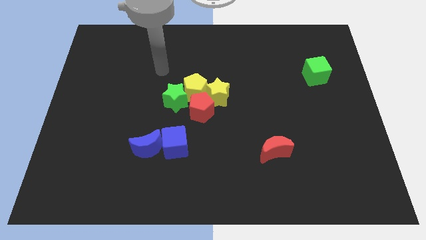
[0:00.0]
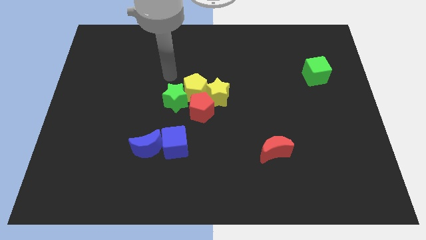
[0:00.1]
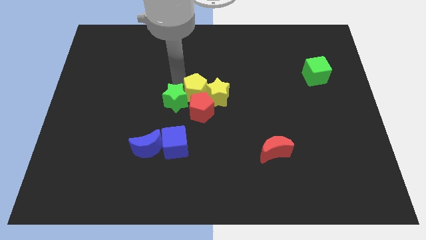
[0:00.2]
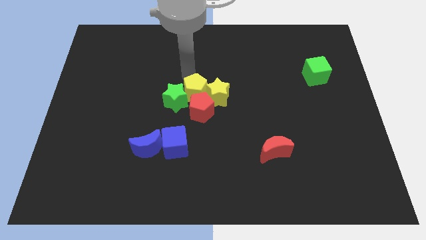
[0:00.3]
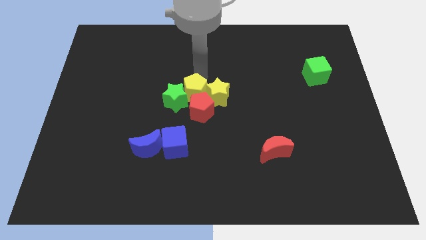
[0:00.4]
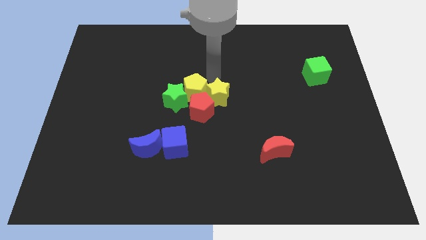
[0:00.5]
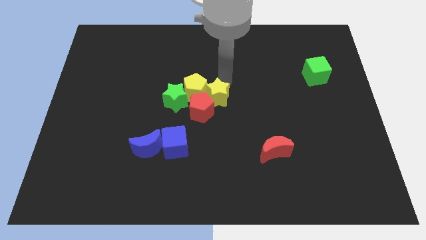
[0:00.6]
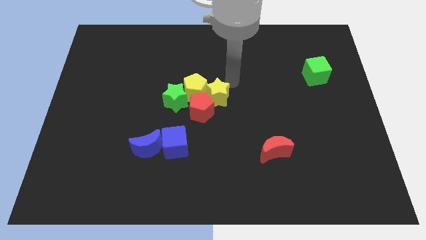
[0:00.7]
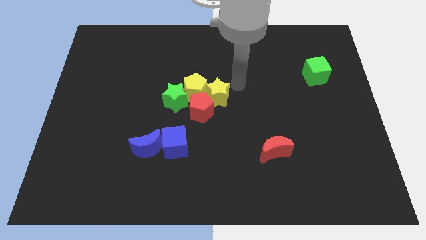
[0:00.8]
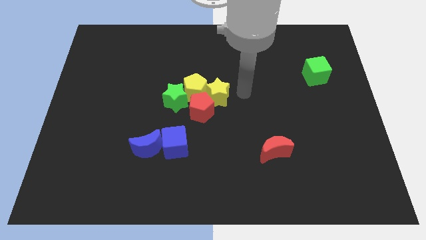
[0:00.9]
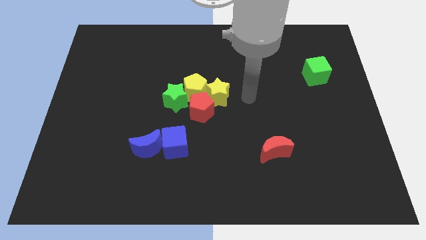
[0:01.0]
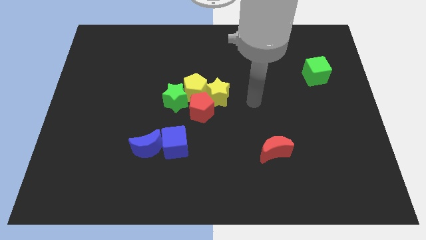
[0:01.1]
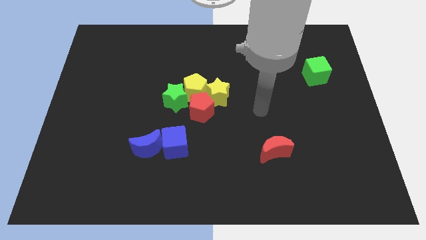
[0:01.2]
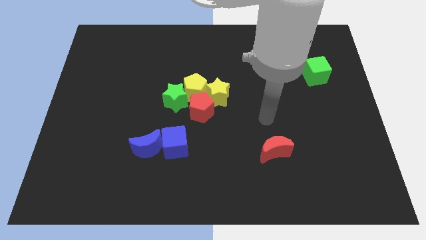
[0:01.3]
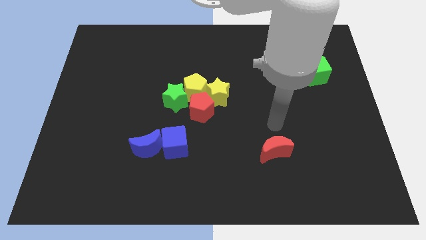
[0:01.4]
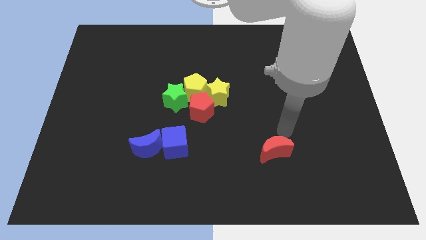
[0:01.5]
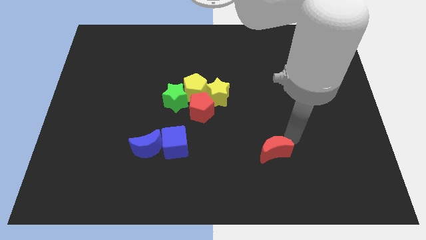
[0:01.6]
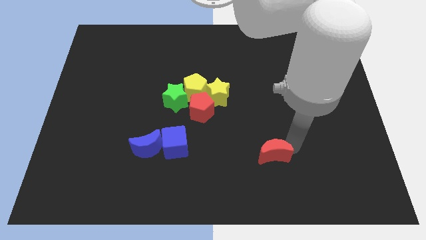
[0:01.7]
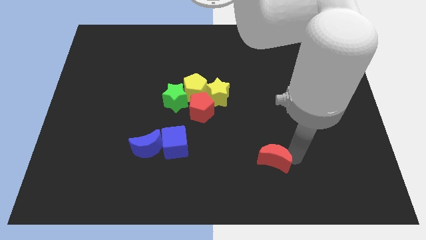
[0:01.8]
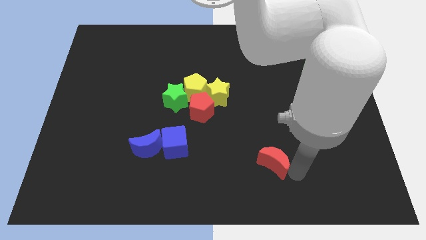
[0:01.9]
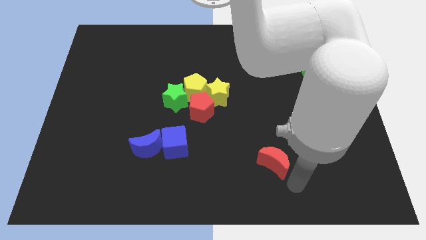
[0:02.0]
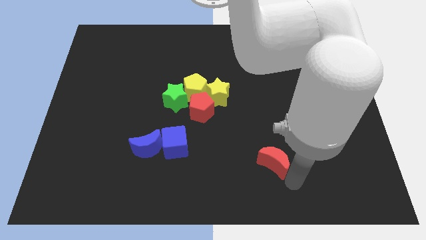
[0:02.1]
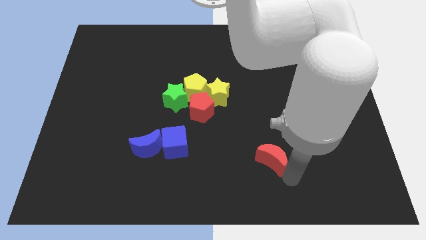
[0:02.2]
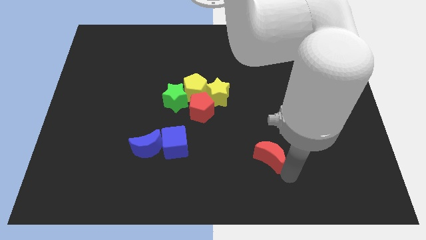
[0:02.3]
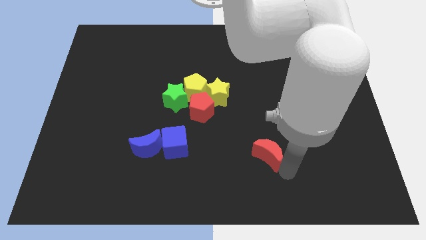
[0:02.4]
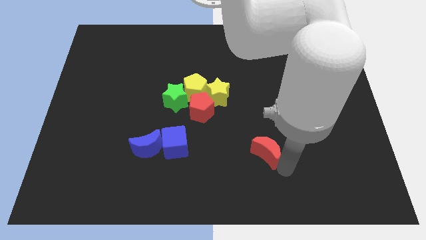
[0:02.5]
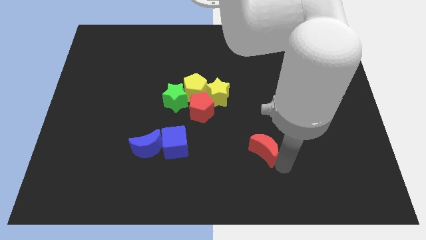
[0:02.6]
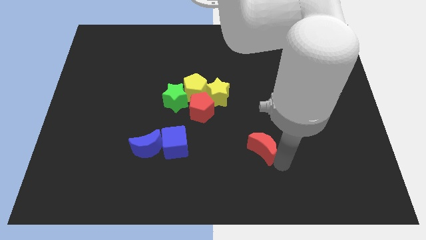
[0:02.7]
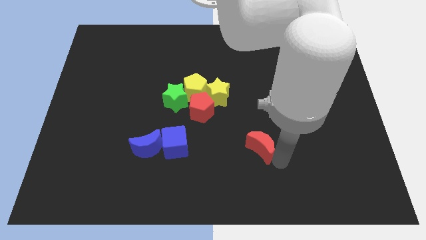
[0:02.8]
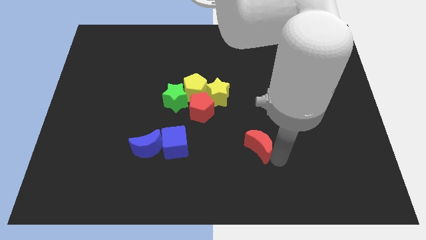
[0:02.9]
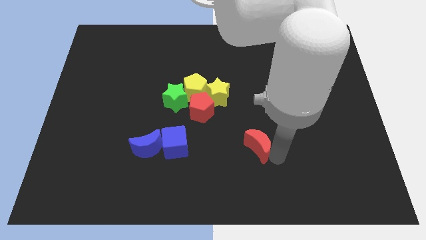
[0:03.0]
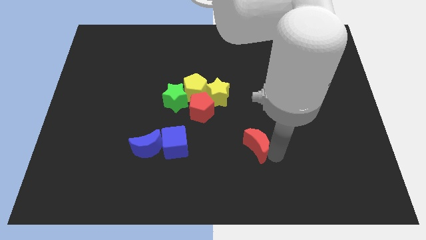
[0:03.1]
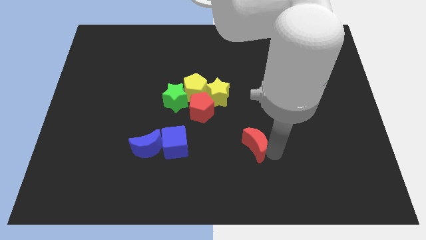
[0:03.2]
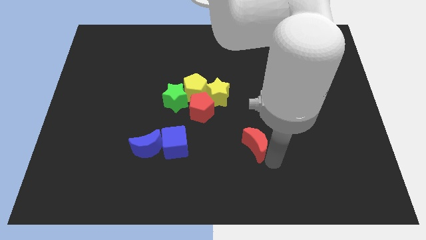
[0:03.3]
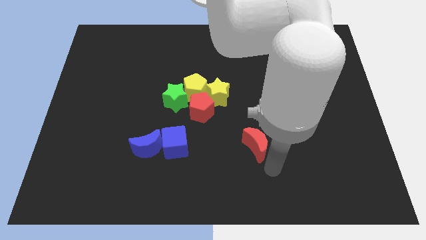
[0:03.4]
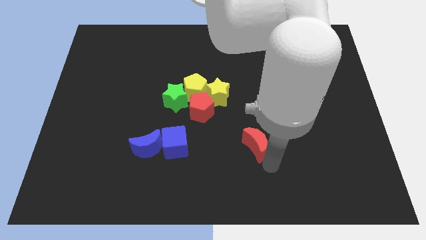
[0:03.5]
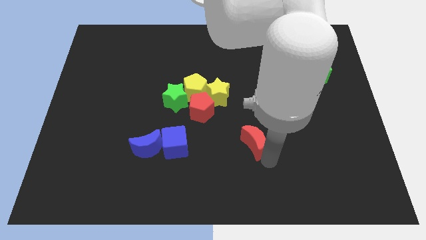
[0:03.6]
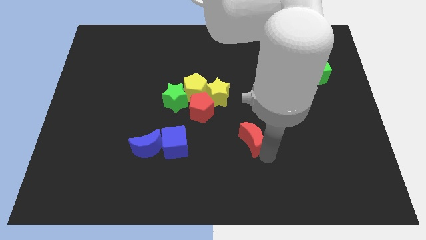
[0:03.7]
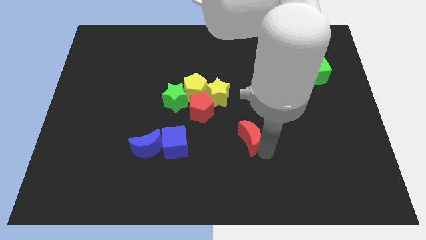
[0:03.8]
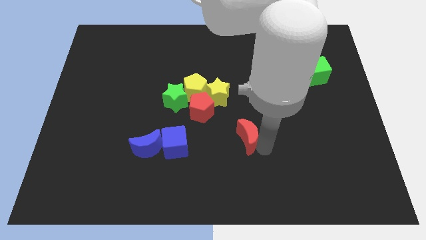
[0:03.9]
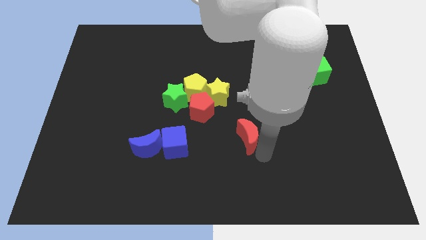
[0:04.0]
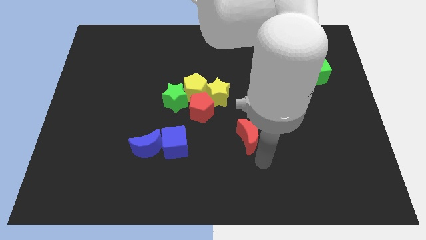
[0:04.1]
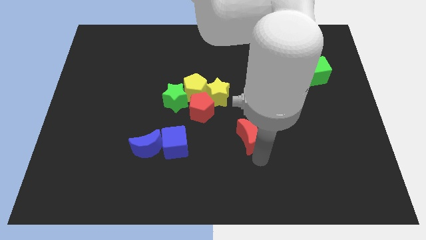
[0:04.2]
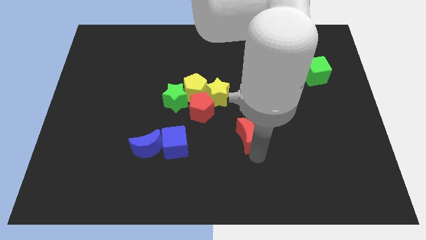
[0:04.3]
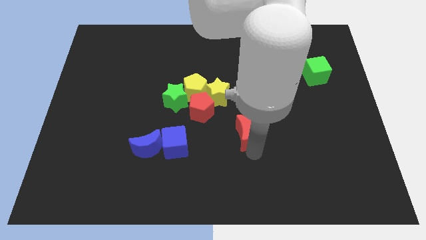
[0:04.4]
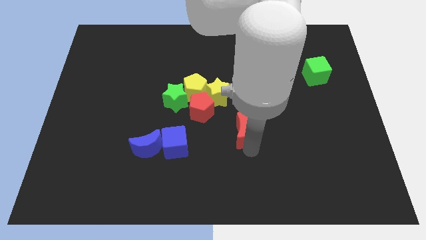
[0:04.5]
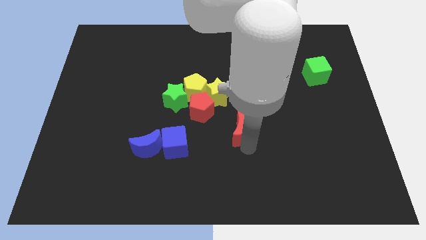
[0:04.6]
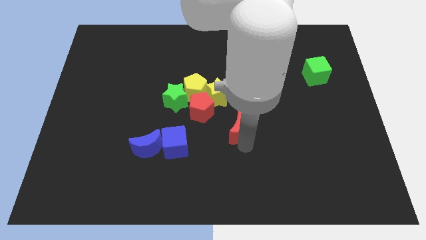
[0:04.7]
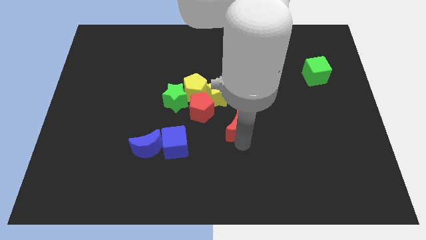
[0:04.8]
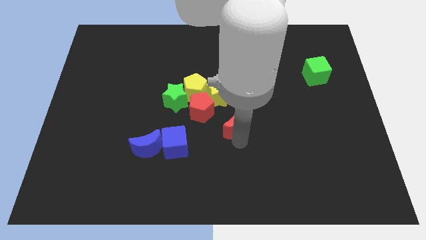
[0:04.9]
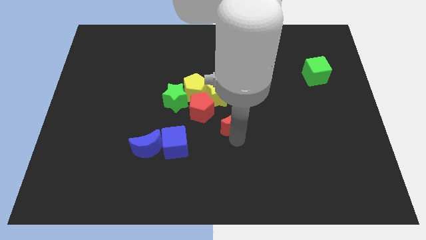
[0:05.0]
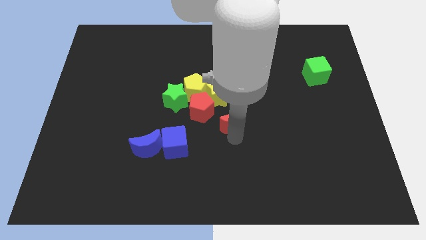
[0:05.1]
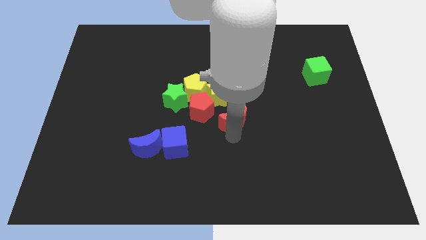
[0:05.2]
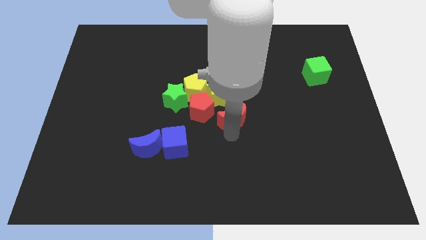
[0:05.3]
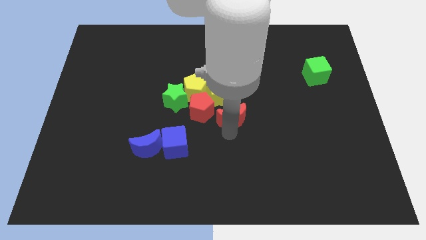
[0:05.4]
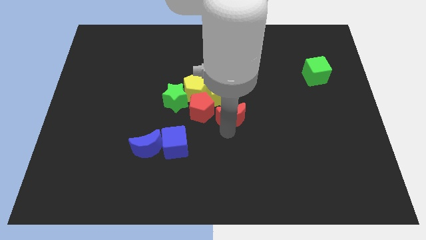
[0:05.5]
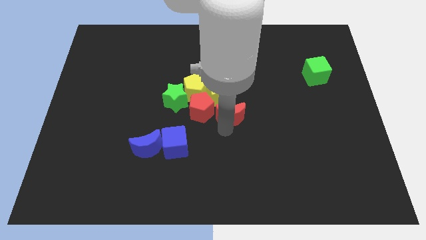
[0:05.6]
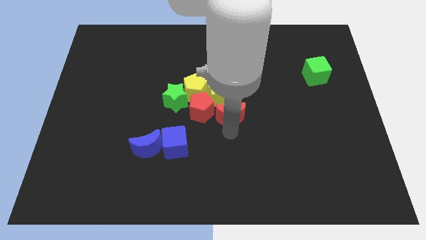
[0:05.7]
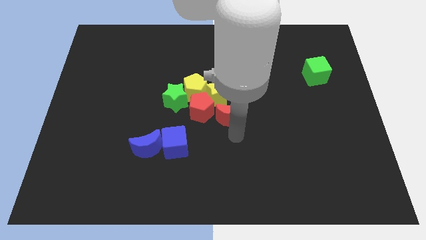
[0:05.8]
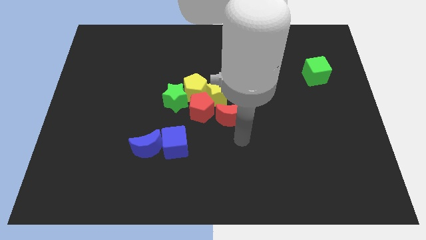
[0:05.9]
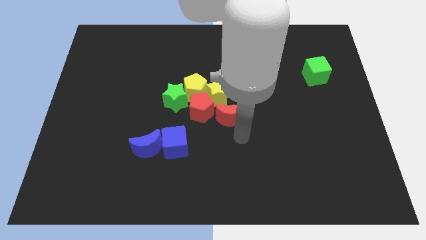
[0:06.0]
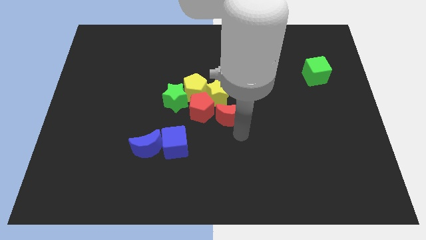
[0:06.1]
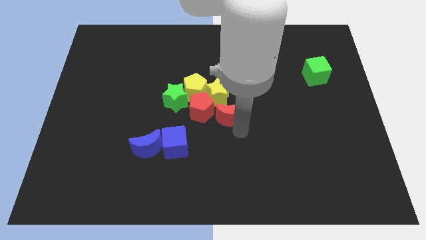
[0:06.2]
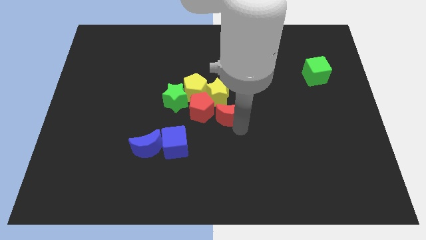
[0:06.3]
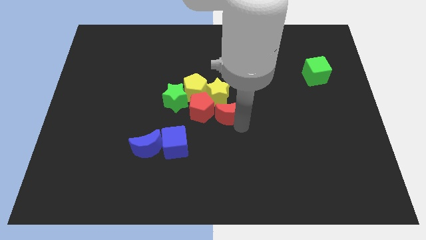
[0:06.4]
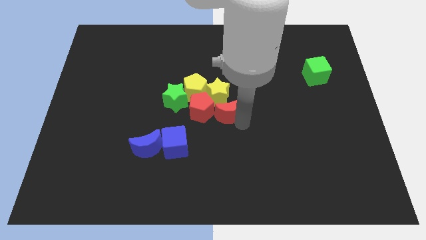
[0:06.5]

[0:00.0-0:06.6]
push the red moon to the yellow star

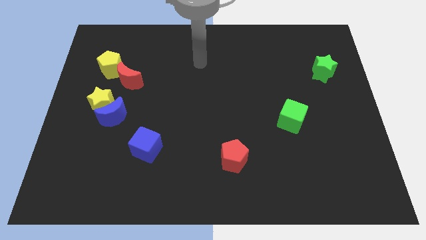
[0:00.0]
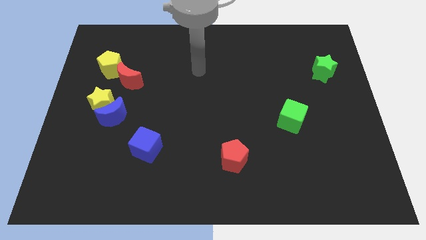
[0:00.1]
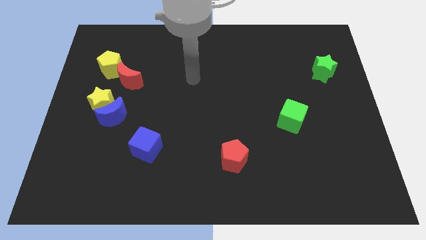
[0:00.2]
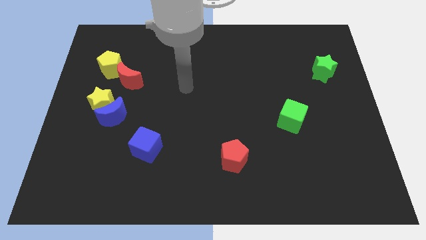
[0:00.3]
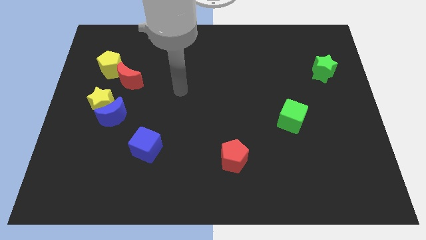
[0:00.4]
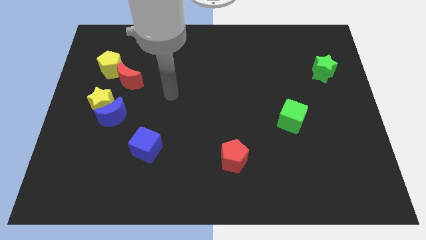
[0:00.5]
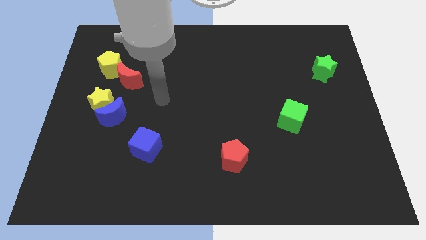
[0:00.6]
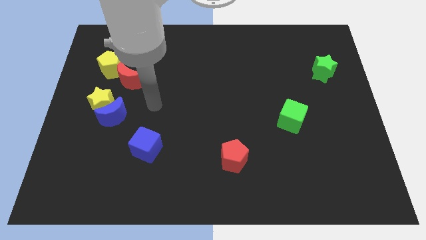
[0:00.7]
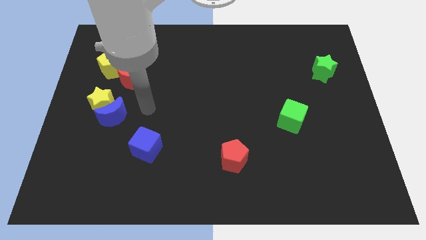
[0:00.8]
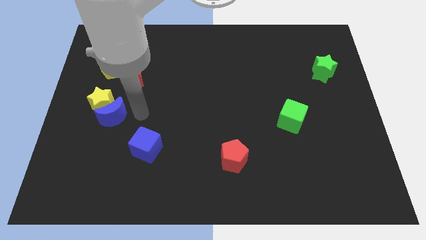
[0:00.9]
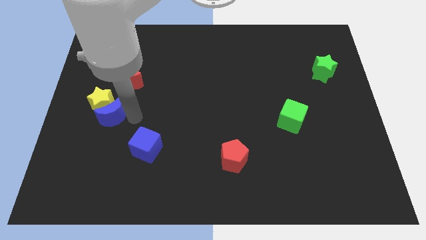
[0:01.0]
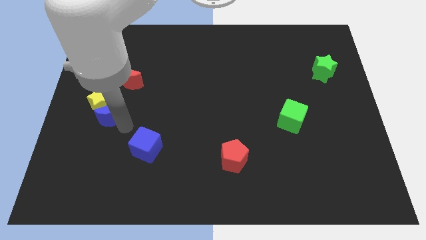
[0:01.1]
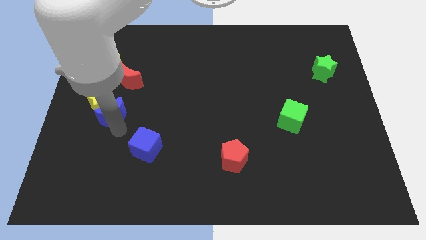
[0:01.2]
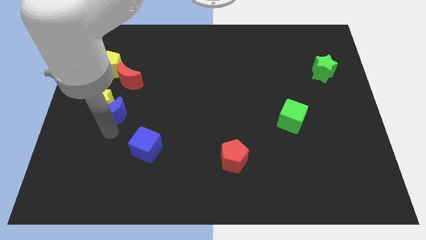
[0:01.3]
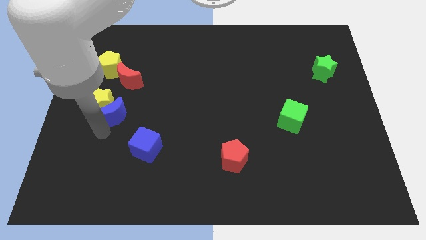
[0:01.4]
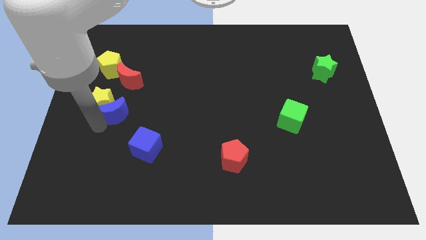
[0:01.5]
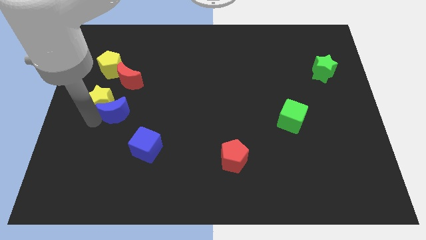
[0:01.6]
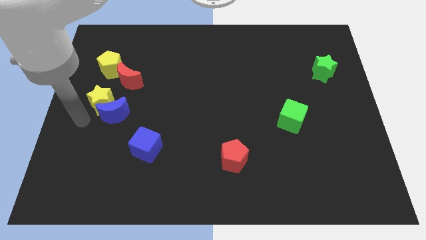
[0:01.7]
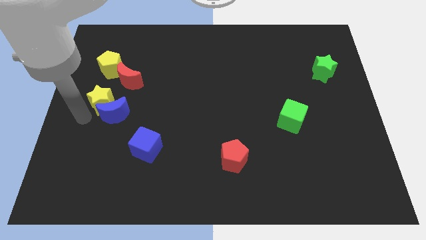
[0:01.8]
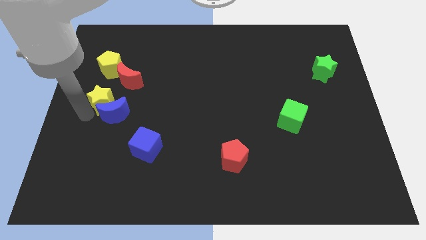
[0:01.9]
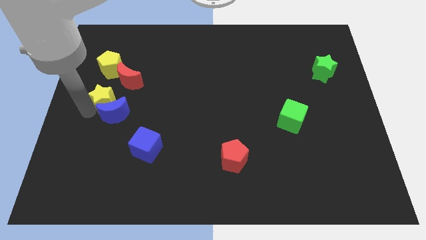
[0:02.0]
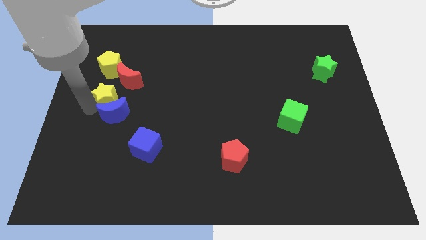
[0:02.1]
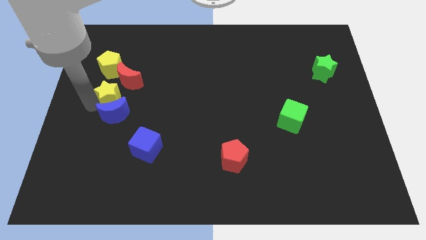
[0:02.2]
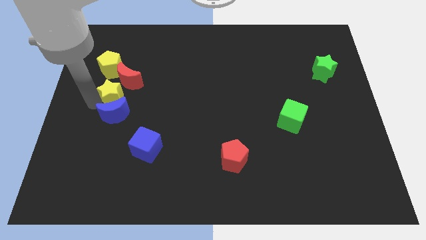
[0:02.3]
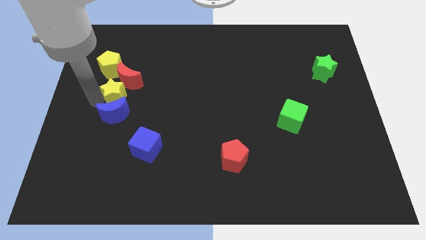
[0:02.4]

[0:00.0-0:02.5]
put the yellow star next to the red moon
